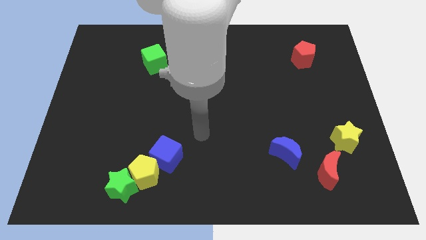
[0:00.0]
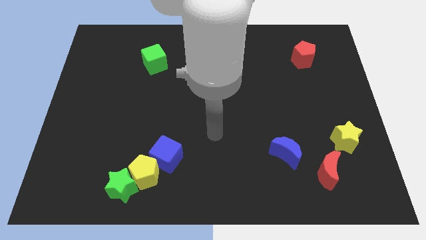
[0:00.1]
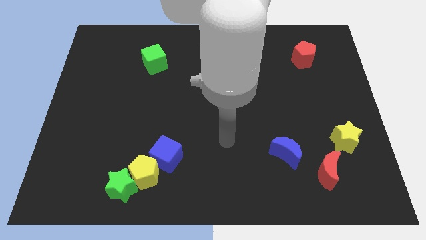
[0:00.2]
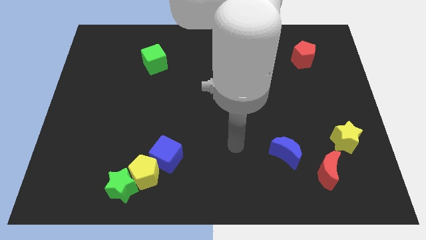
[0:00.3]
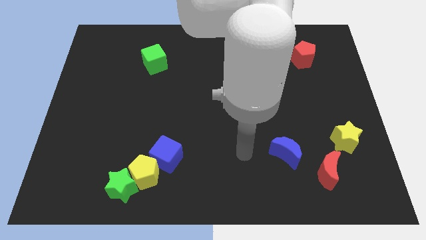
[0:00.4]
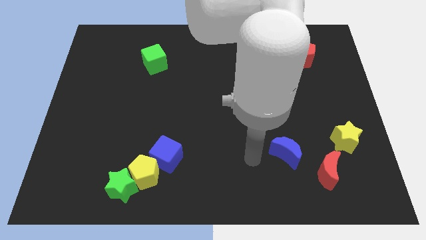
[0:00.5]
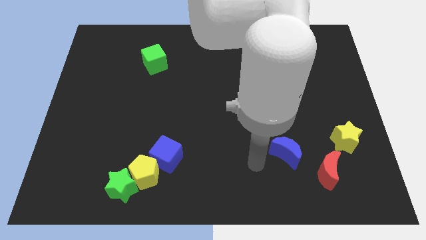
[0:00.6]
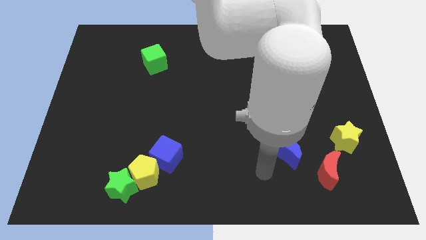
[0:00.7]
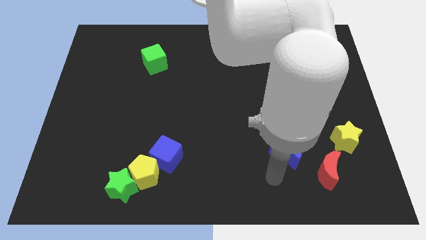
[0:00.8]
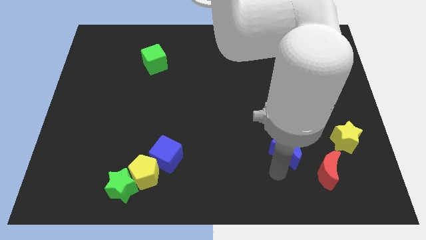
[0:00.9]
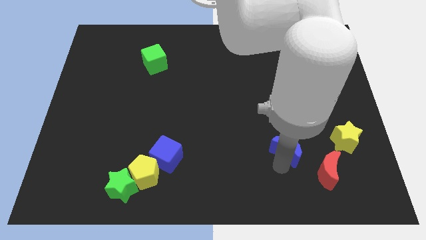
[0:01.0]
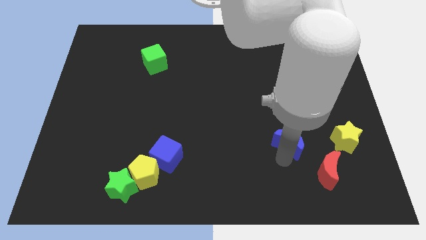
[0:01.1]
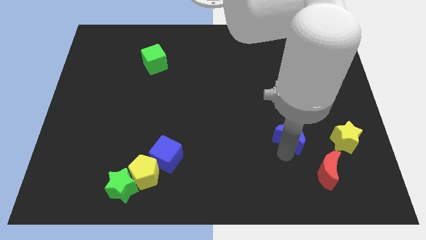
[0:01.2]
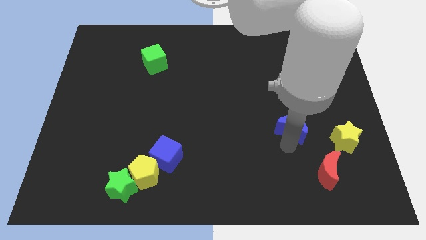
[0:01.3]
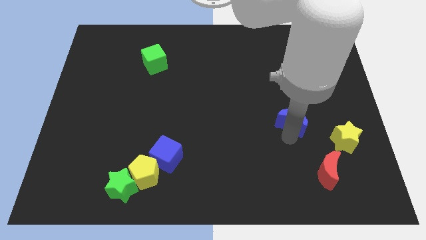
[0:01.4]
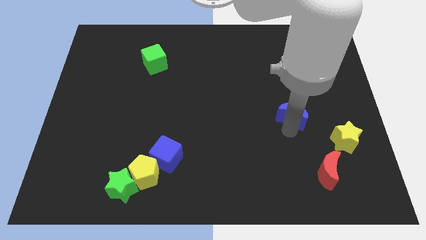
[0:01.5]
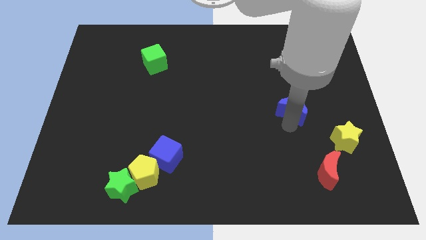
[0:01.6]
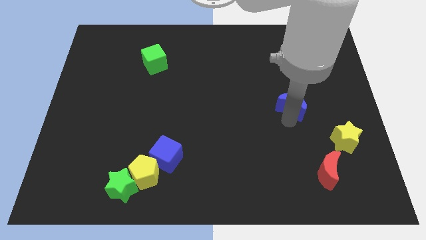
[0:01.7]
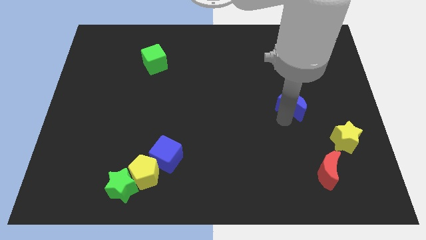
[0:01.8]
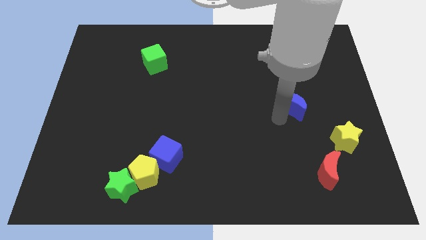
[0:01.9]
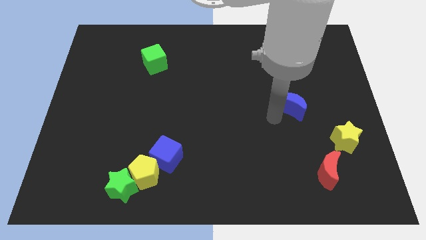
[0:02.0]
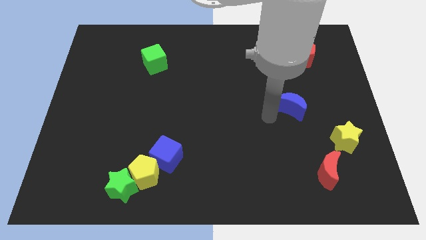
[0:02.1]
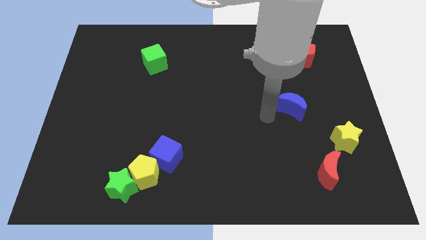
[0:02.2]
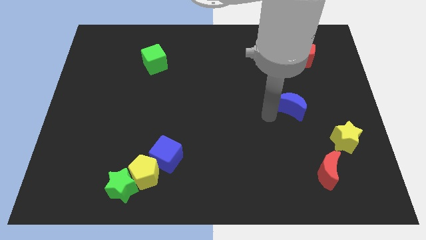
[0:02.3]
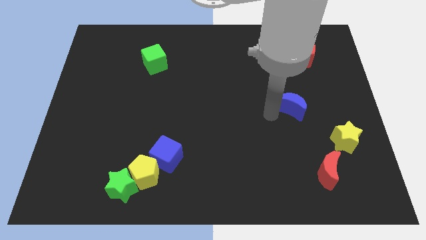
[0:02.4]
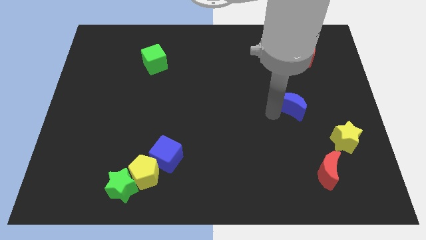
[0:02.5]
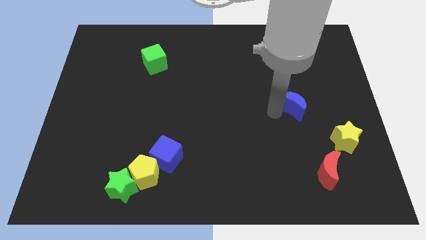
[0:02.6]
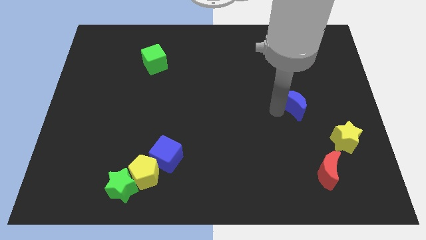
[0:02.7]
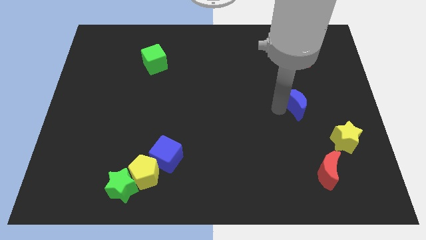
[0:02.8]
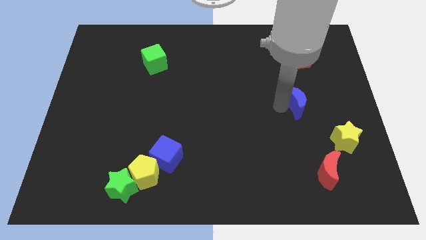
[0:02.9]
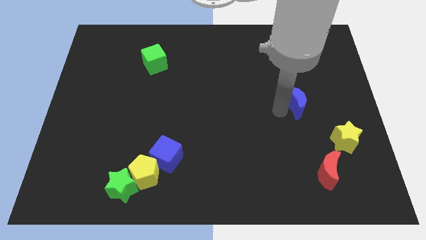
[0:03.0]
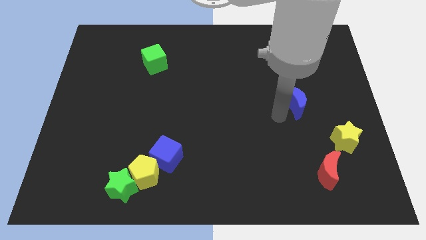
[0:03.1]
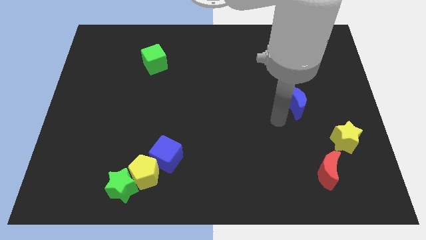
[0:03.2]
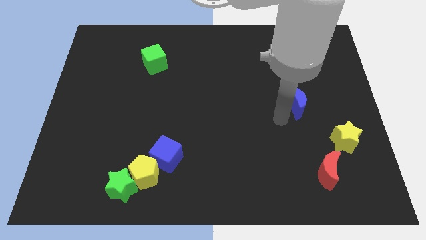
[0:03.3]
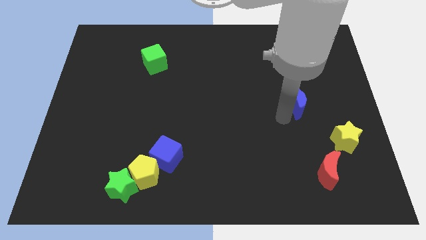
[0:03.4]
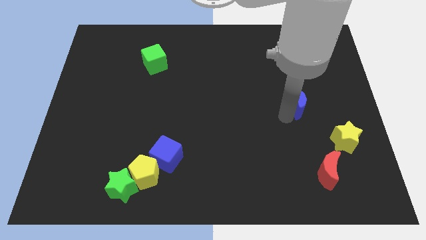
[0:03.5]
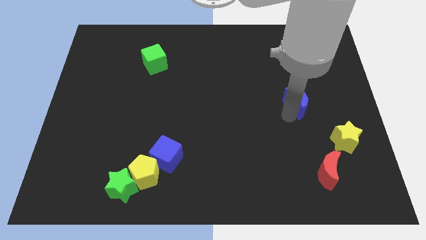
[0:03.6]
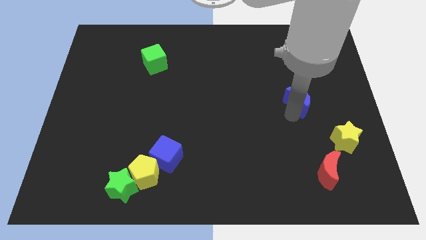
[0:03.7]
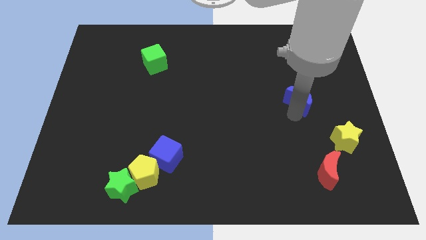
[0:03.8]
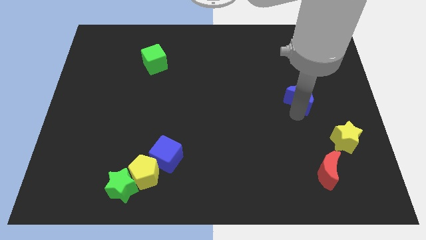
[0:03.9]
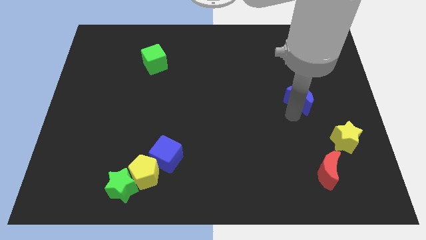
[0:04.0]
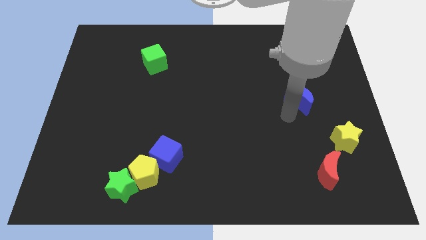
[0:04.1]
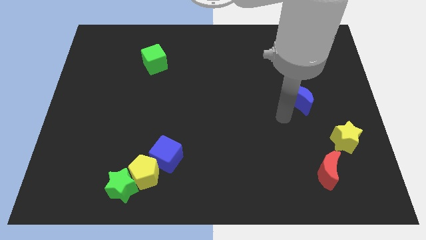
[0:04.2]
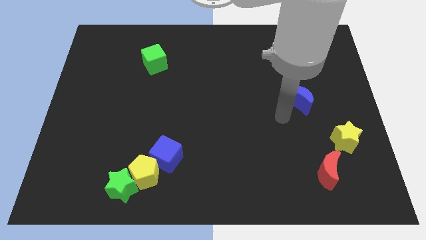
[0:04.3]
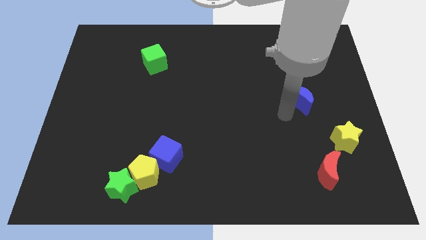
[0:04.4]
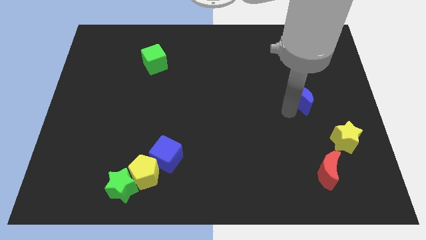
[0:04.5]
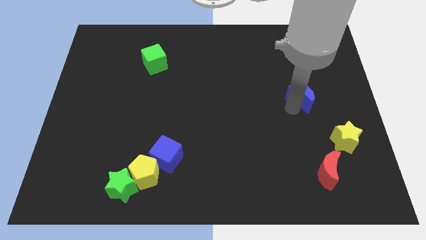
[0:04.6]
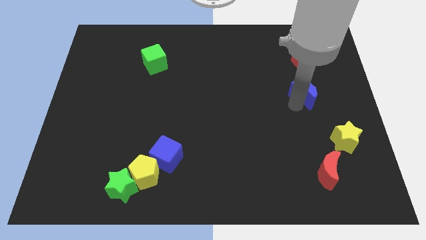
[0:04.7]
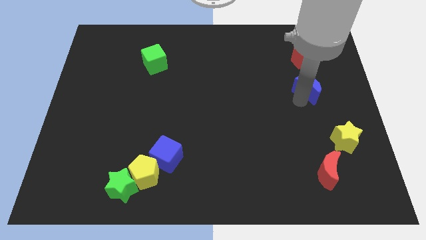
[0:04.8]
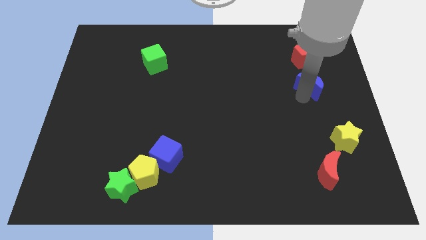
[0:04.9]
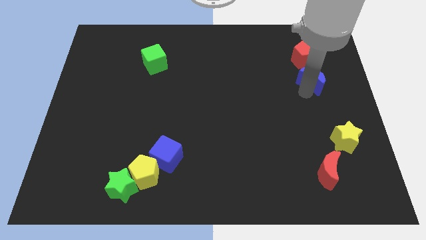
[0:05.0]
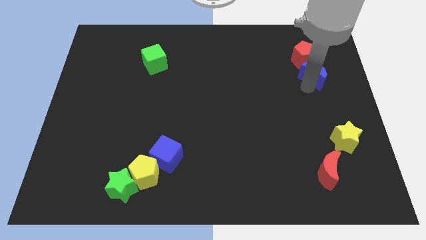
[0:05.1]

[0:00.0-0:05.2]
put the blue moon to the bottom right side of the red pentagon

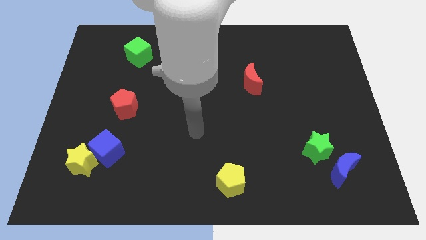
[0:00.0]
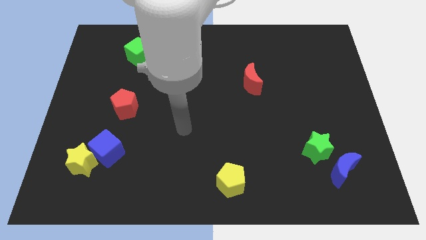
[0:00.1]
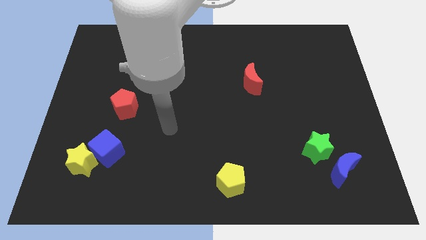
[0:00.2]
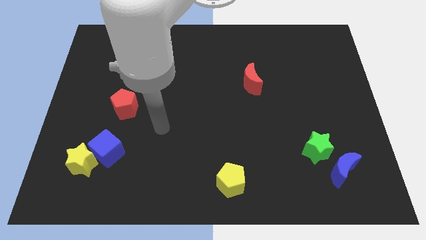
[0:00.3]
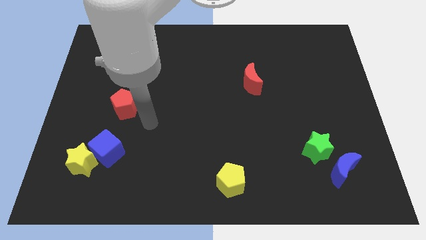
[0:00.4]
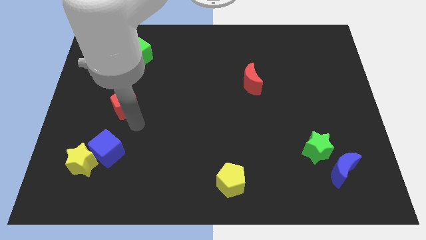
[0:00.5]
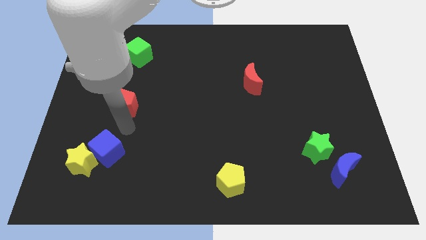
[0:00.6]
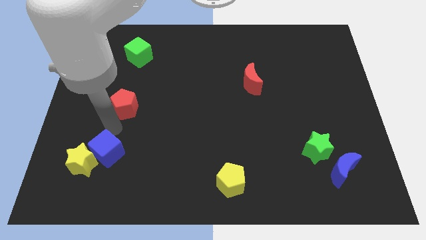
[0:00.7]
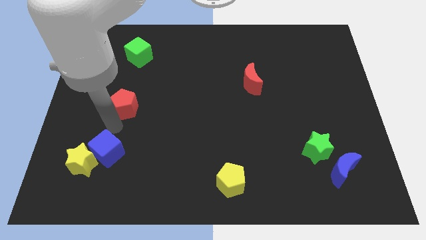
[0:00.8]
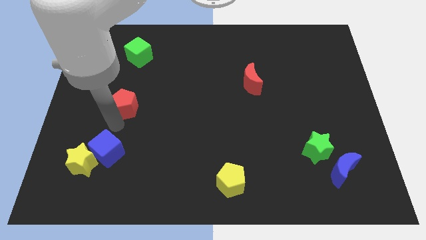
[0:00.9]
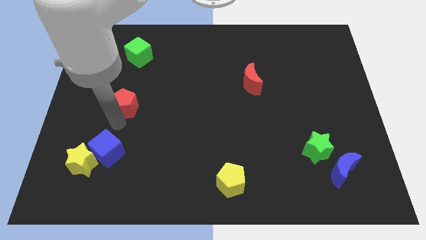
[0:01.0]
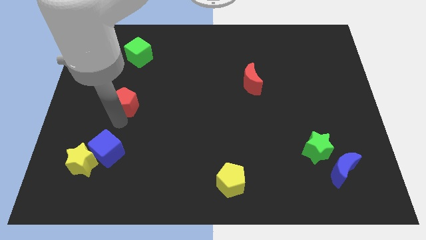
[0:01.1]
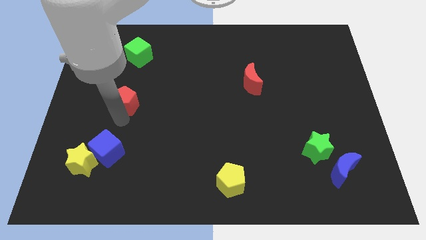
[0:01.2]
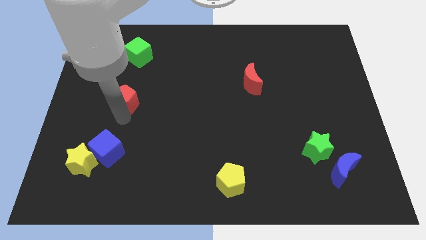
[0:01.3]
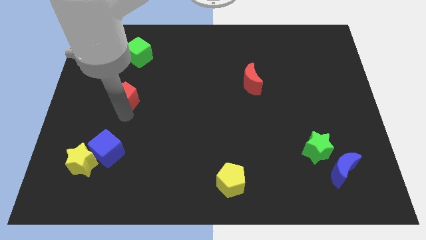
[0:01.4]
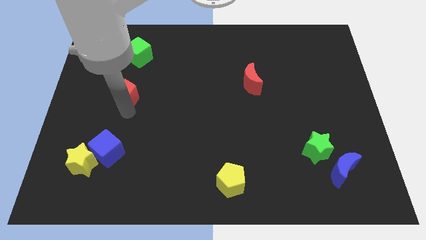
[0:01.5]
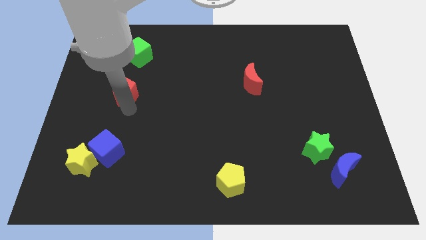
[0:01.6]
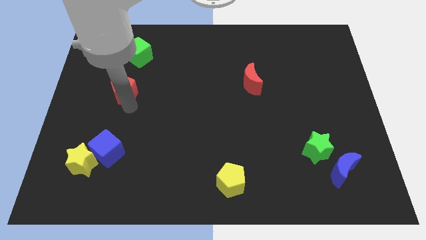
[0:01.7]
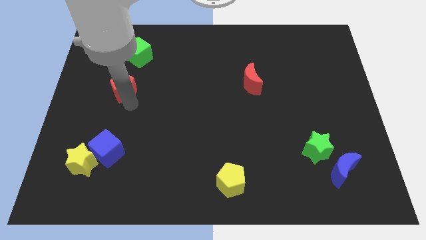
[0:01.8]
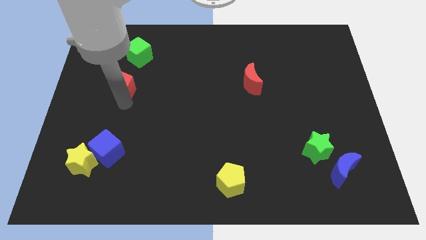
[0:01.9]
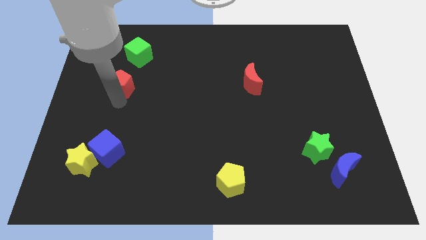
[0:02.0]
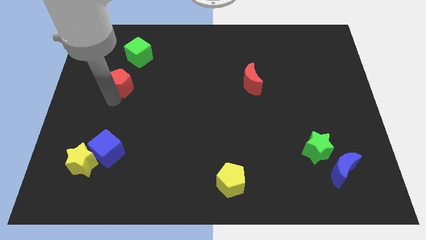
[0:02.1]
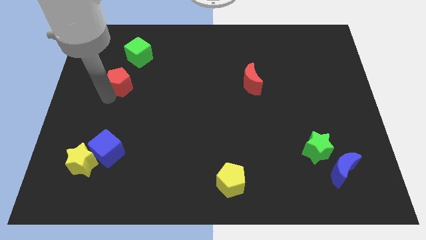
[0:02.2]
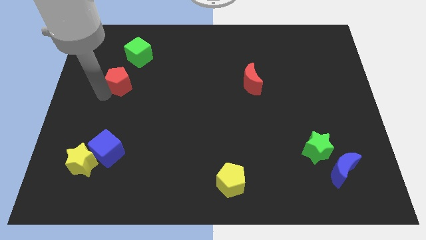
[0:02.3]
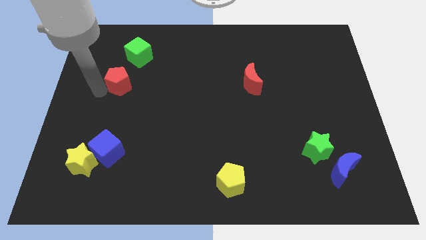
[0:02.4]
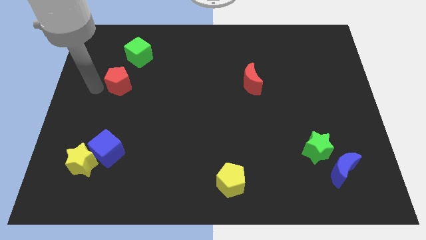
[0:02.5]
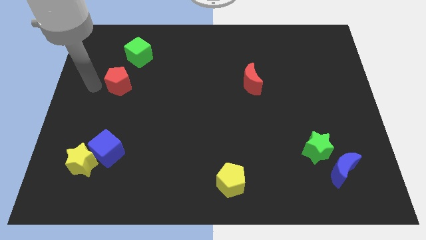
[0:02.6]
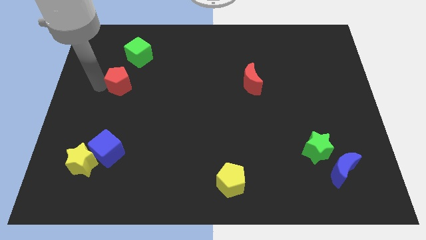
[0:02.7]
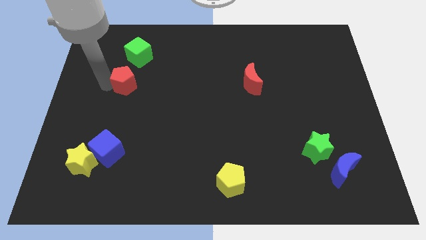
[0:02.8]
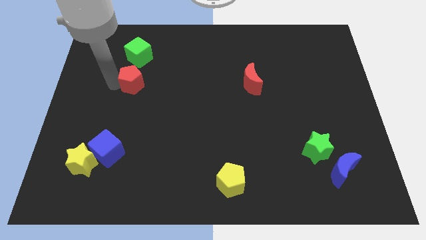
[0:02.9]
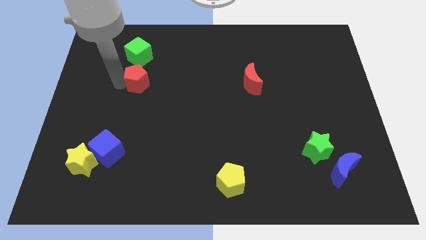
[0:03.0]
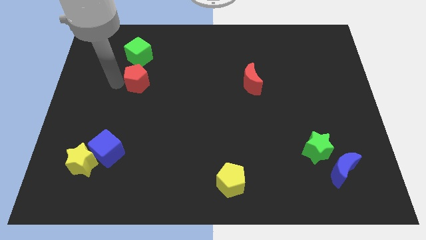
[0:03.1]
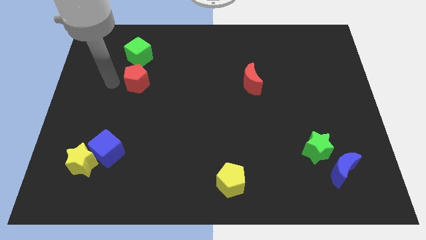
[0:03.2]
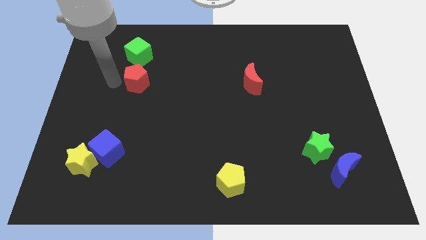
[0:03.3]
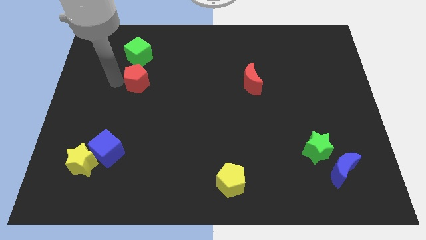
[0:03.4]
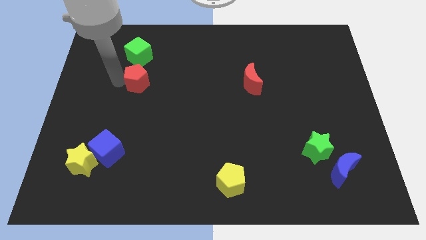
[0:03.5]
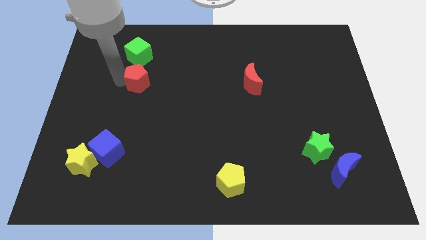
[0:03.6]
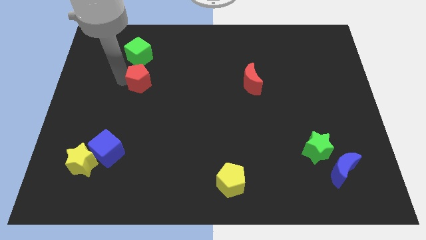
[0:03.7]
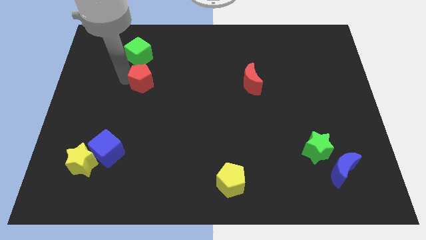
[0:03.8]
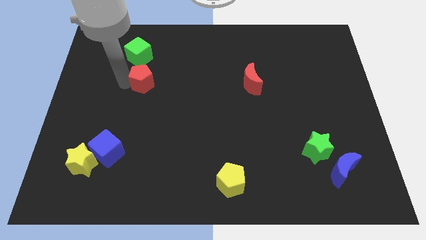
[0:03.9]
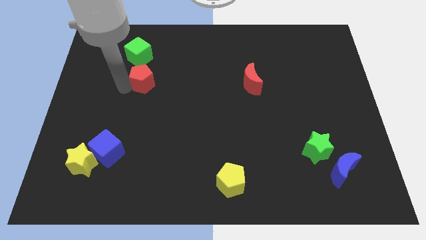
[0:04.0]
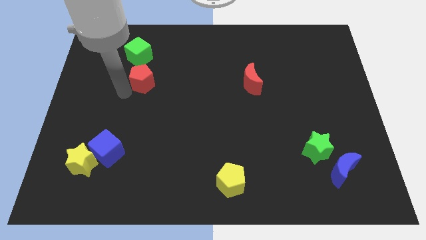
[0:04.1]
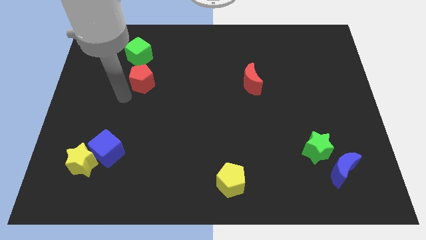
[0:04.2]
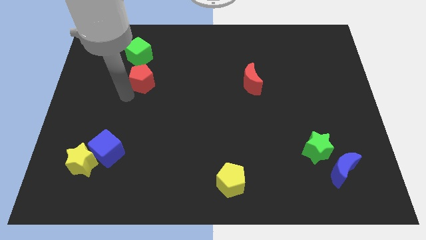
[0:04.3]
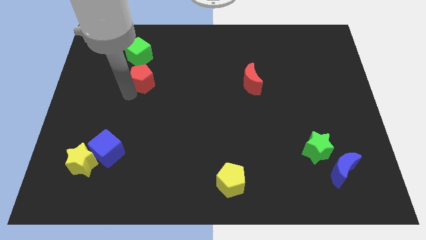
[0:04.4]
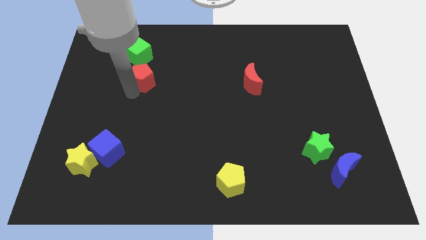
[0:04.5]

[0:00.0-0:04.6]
move the red pentagon diagonally down and to the right of the green cube
